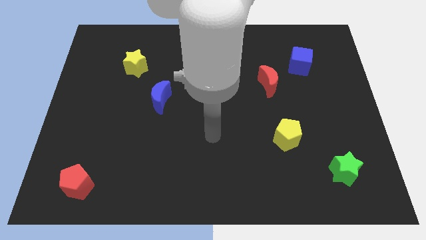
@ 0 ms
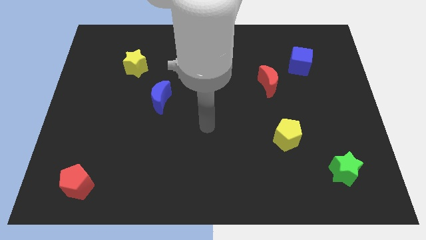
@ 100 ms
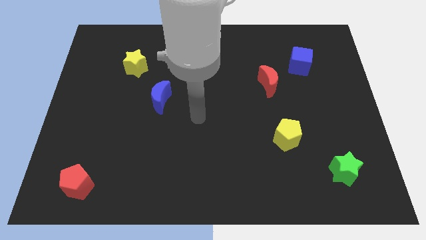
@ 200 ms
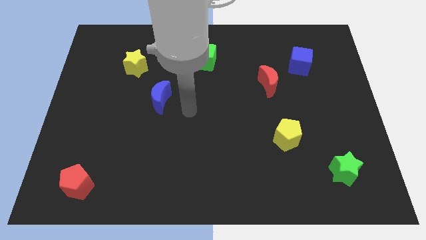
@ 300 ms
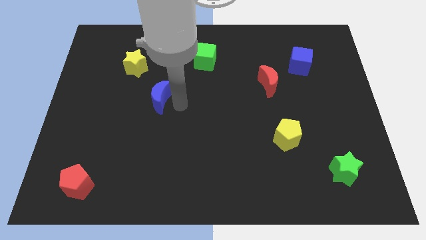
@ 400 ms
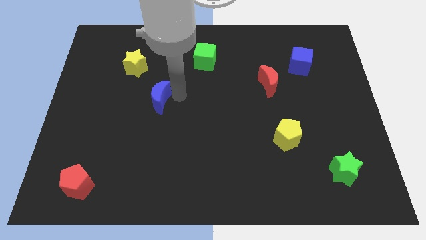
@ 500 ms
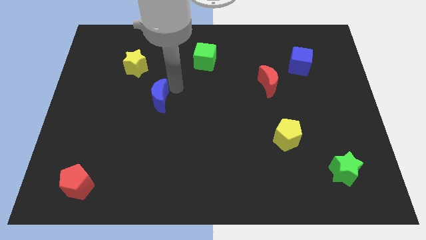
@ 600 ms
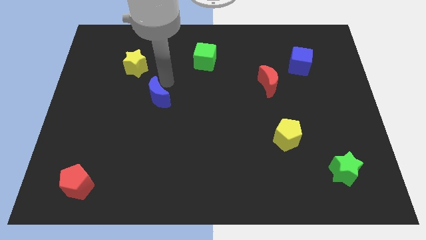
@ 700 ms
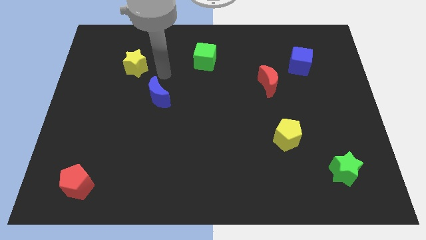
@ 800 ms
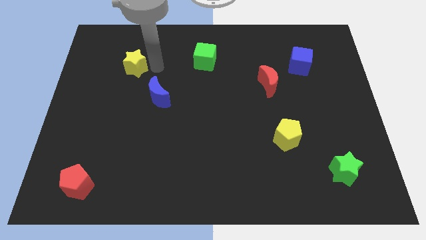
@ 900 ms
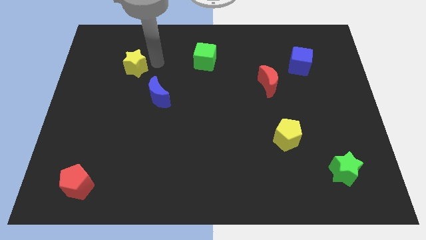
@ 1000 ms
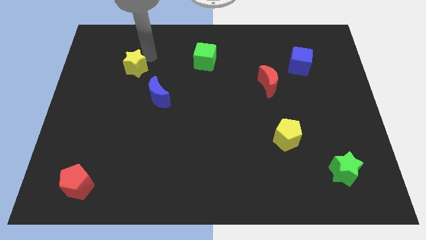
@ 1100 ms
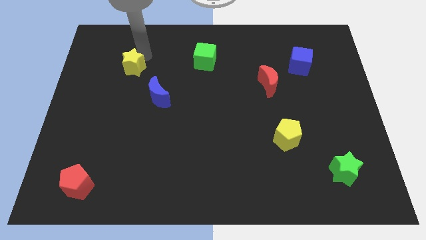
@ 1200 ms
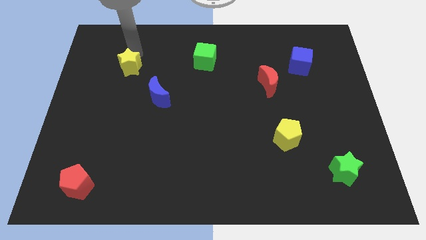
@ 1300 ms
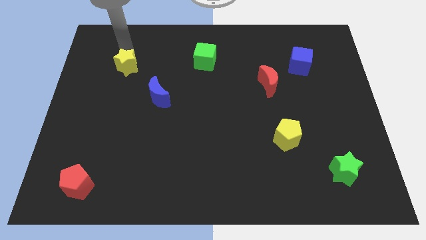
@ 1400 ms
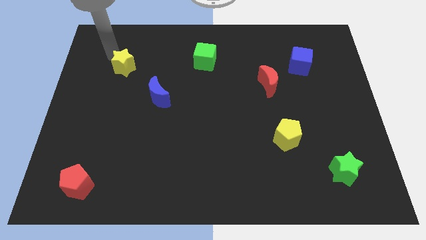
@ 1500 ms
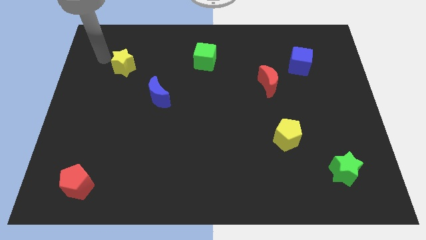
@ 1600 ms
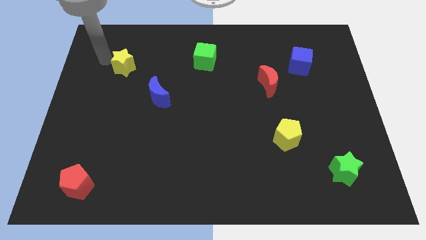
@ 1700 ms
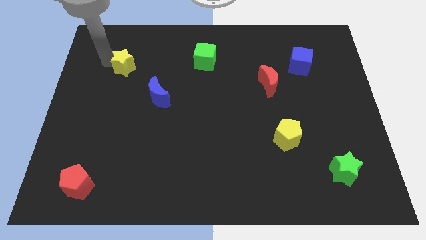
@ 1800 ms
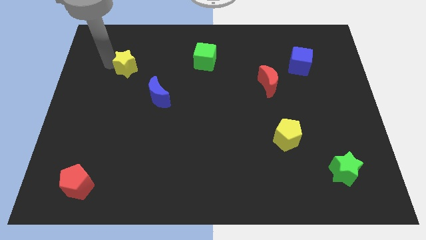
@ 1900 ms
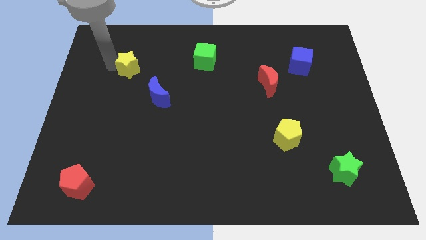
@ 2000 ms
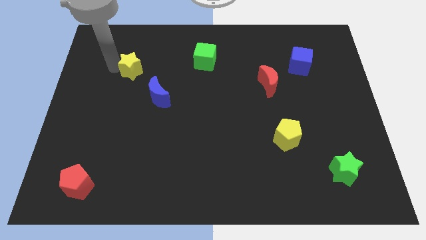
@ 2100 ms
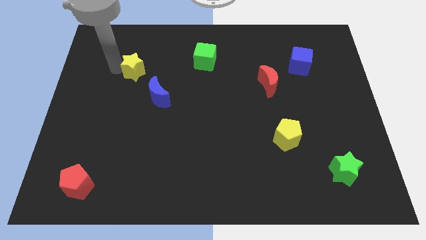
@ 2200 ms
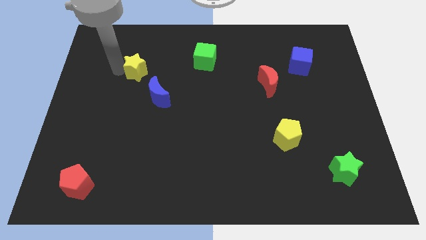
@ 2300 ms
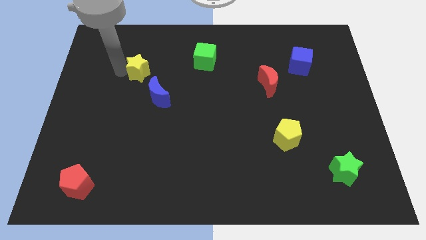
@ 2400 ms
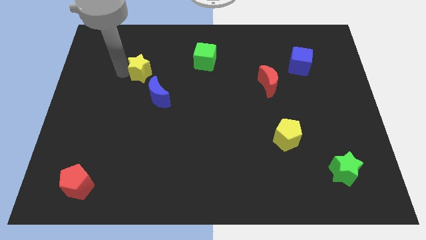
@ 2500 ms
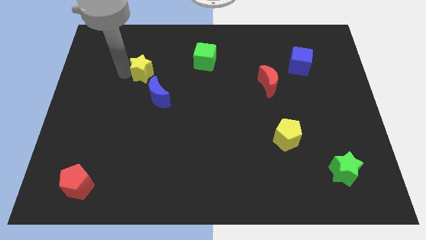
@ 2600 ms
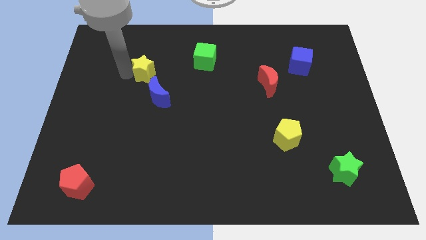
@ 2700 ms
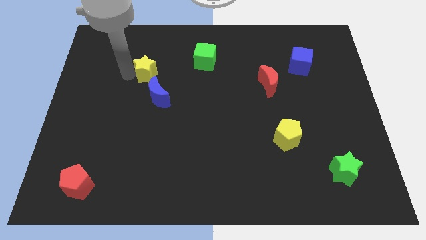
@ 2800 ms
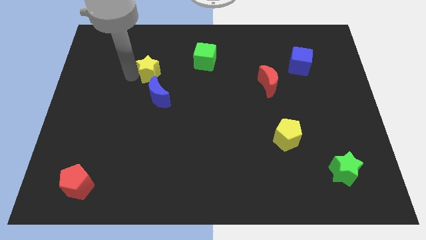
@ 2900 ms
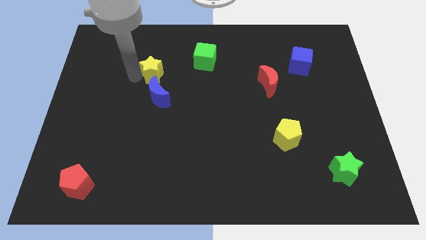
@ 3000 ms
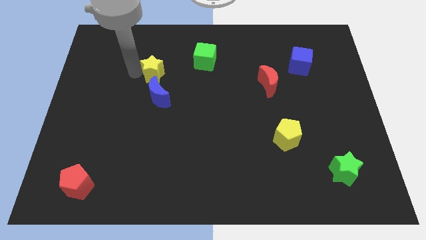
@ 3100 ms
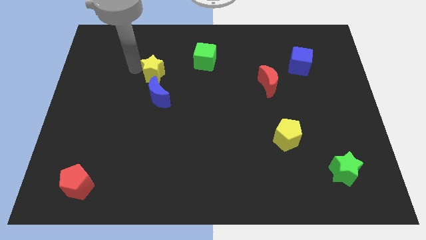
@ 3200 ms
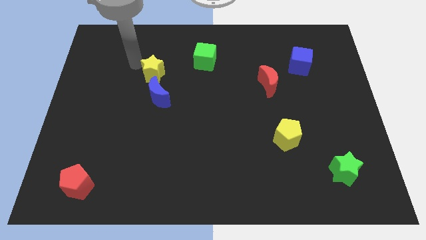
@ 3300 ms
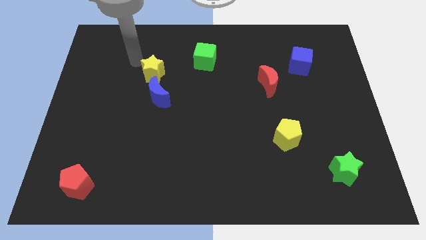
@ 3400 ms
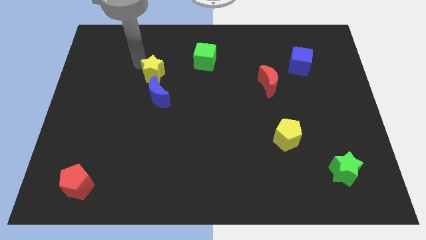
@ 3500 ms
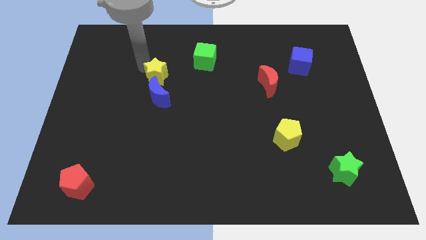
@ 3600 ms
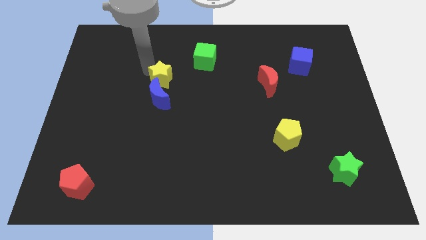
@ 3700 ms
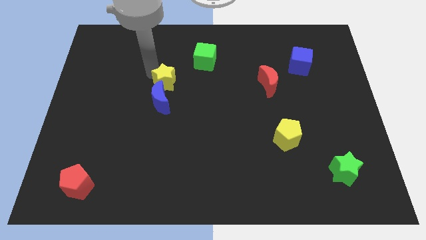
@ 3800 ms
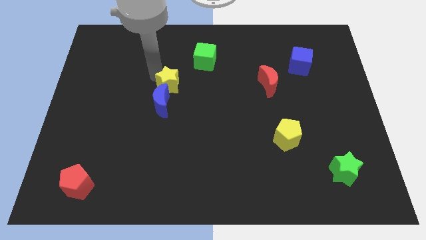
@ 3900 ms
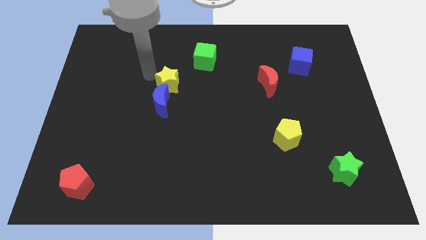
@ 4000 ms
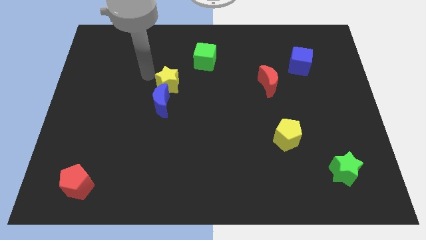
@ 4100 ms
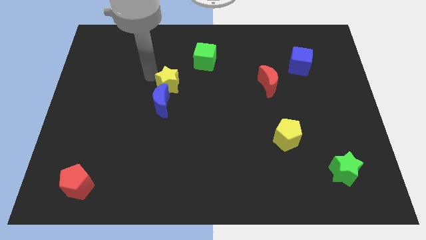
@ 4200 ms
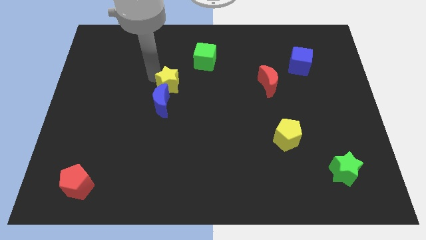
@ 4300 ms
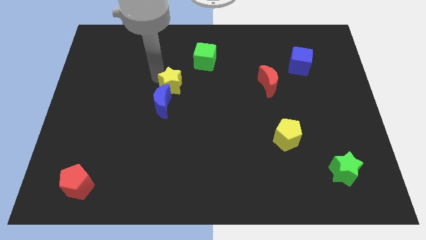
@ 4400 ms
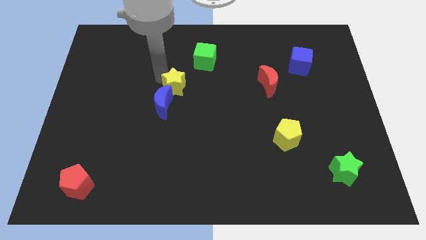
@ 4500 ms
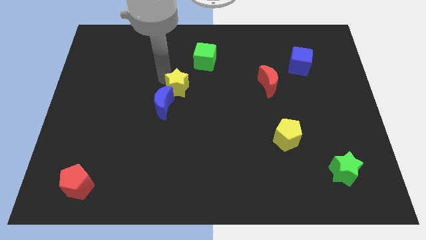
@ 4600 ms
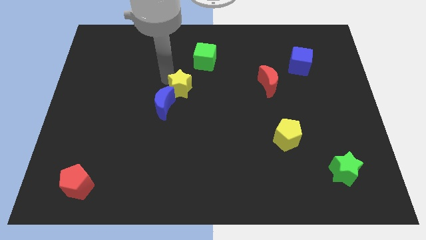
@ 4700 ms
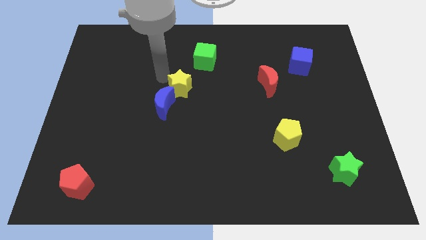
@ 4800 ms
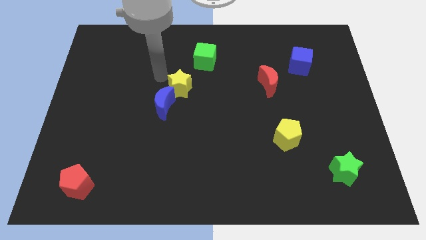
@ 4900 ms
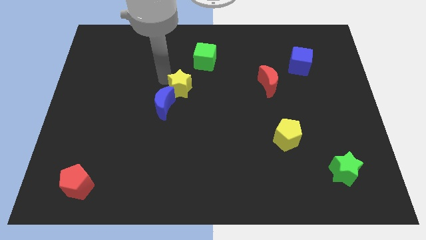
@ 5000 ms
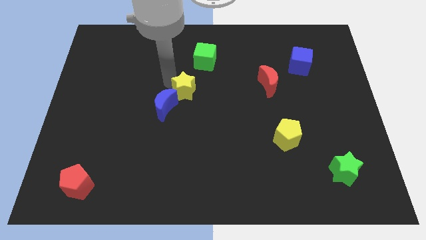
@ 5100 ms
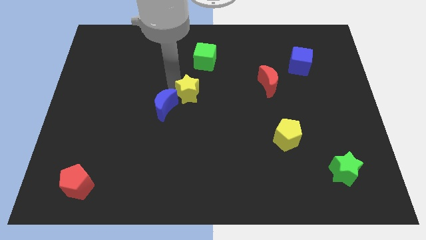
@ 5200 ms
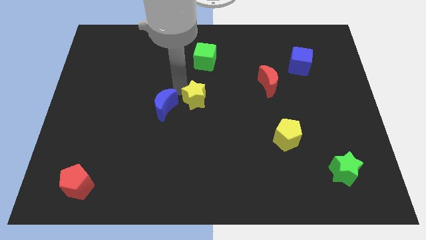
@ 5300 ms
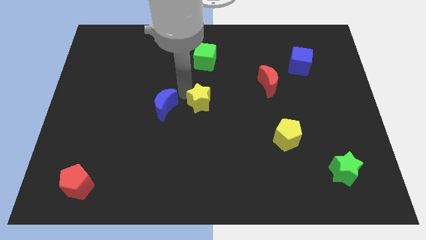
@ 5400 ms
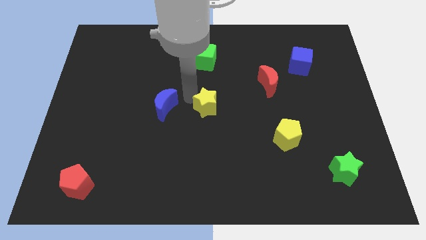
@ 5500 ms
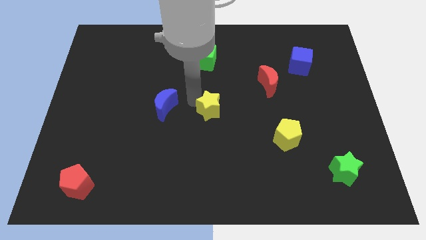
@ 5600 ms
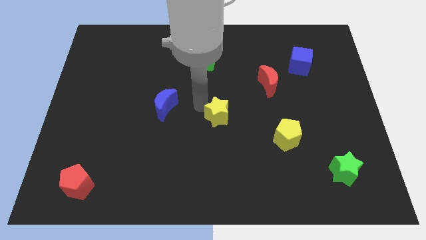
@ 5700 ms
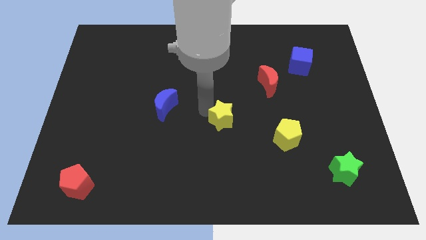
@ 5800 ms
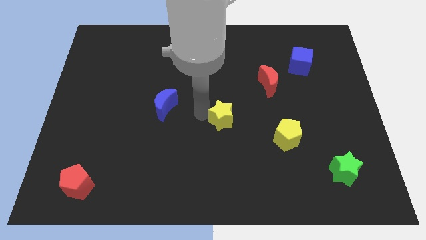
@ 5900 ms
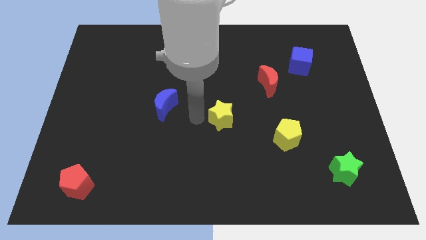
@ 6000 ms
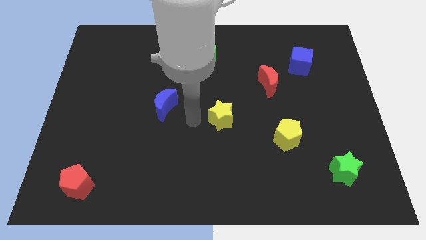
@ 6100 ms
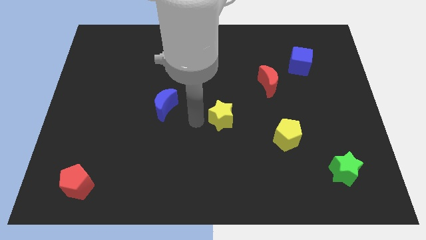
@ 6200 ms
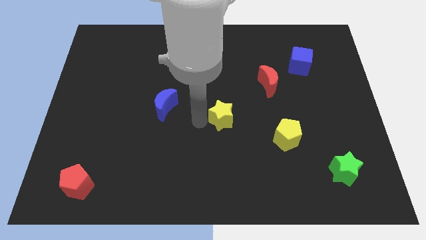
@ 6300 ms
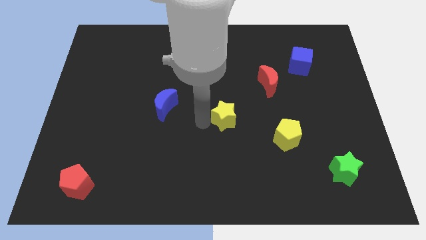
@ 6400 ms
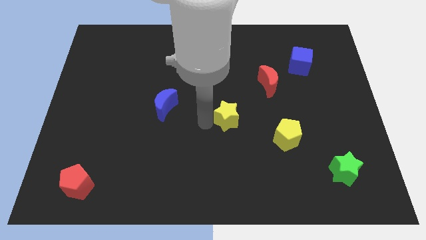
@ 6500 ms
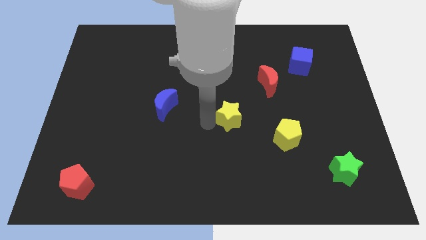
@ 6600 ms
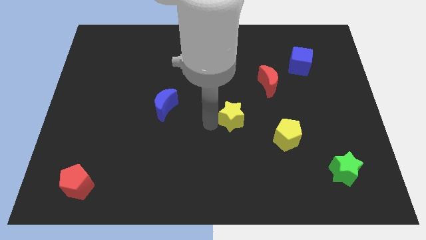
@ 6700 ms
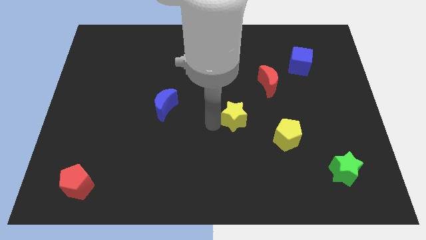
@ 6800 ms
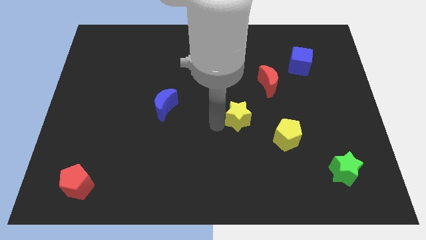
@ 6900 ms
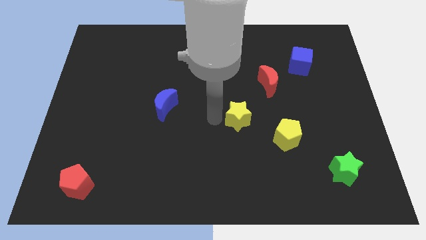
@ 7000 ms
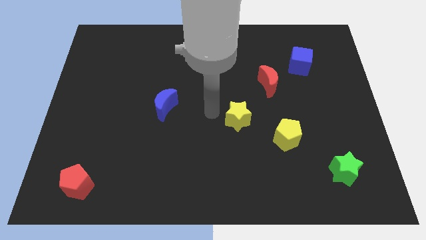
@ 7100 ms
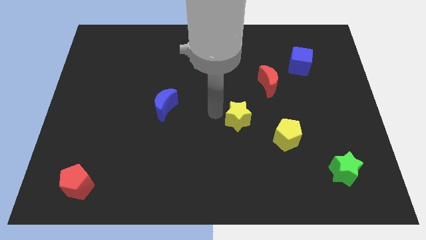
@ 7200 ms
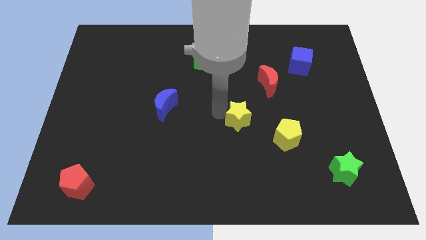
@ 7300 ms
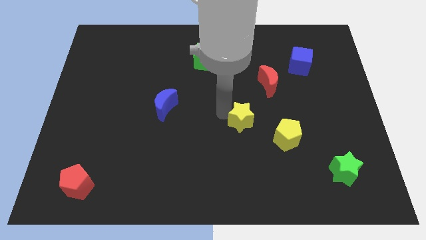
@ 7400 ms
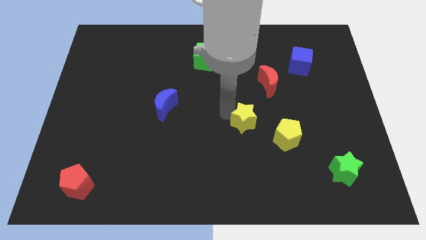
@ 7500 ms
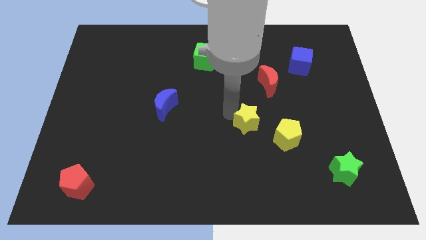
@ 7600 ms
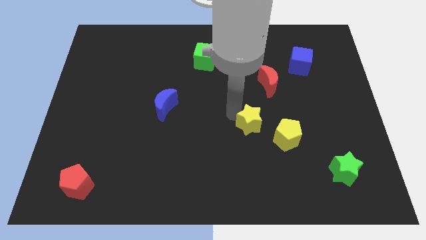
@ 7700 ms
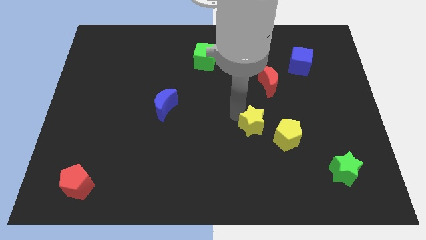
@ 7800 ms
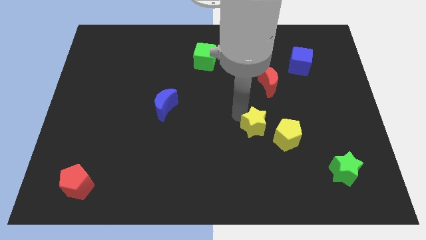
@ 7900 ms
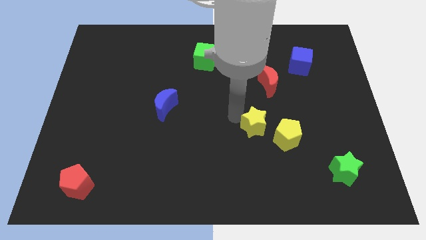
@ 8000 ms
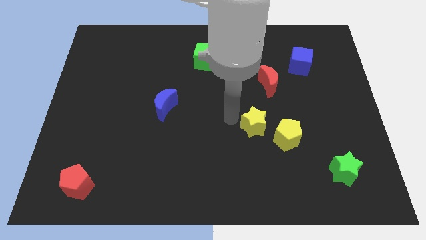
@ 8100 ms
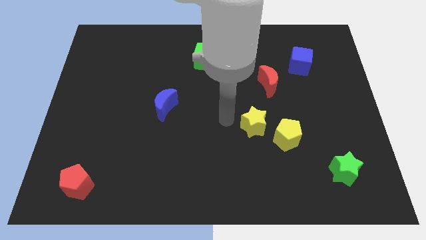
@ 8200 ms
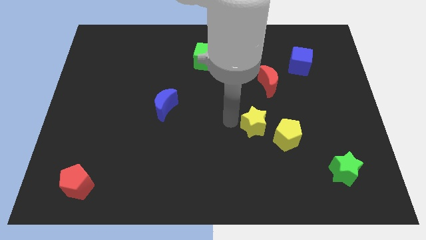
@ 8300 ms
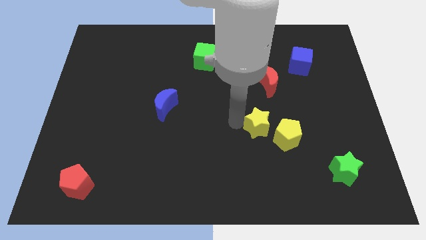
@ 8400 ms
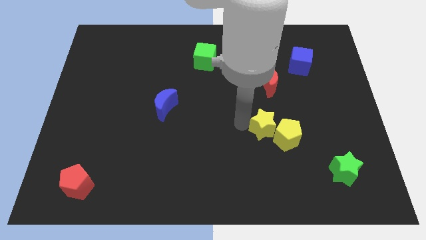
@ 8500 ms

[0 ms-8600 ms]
move the yellow star to the yellow pentagon
